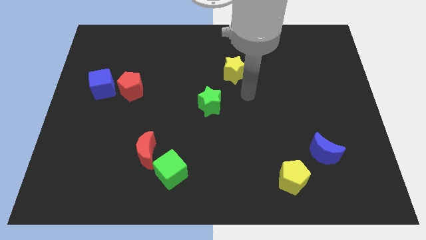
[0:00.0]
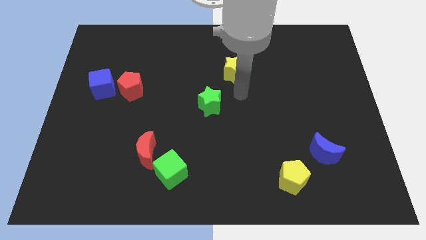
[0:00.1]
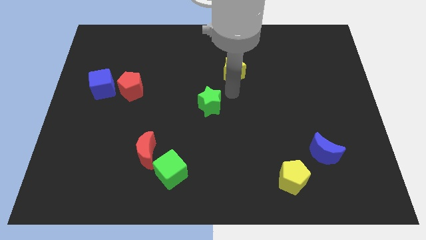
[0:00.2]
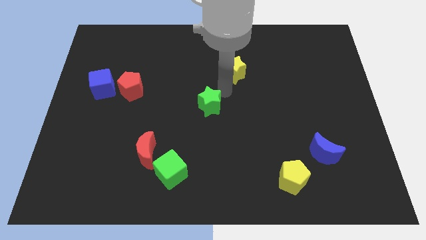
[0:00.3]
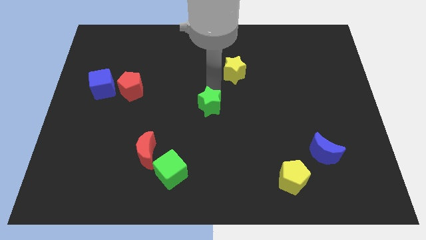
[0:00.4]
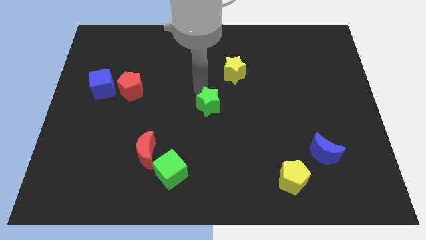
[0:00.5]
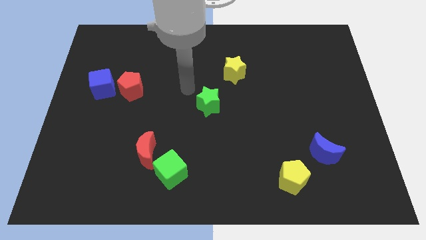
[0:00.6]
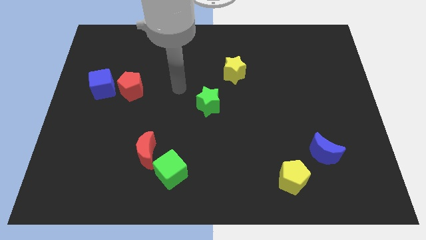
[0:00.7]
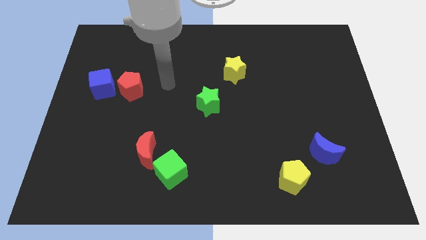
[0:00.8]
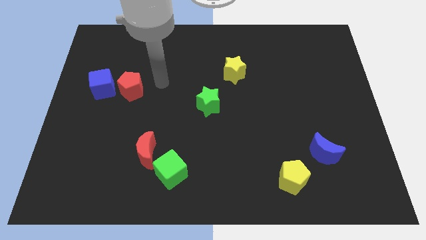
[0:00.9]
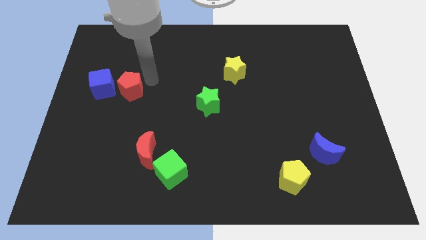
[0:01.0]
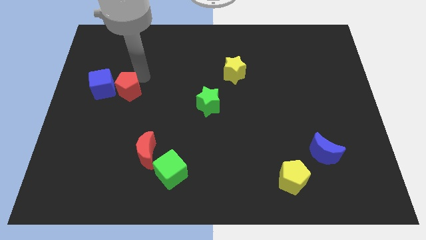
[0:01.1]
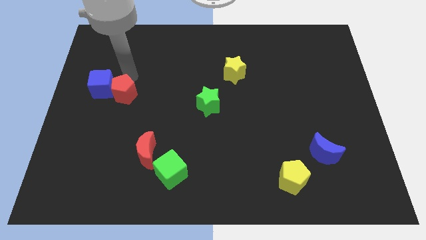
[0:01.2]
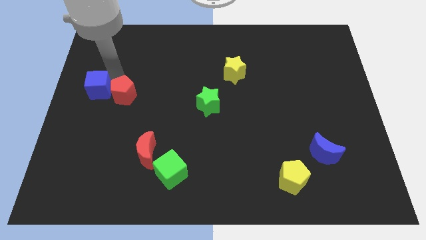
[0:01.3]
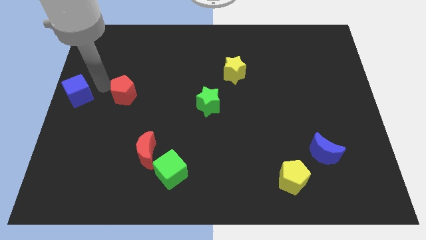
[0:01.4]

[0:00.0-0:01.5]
move the red pentagon away from the blue cube

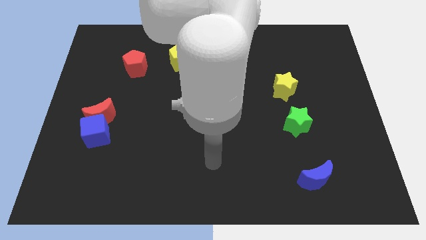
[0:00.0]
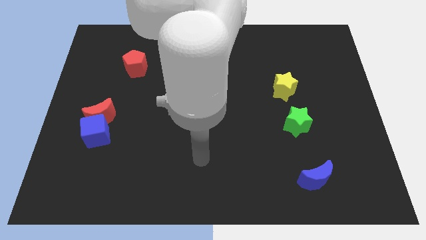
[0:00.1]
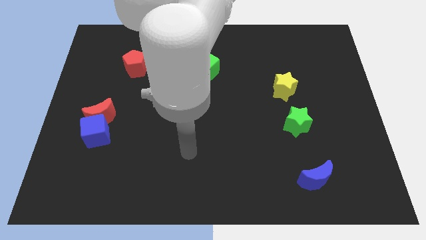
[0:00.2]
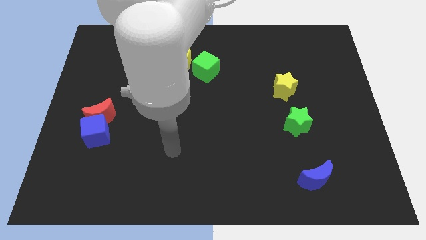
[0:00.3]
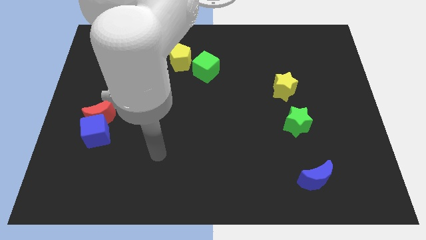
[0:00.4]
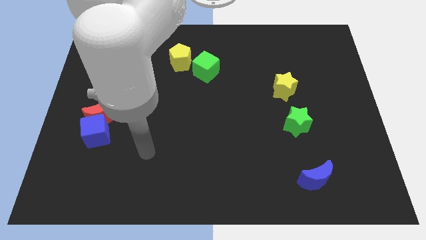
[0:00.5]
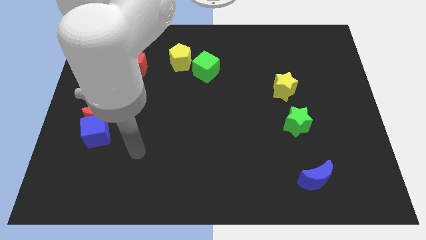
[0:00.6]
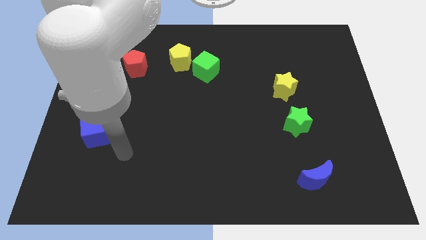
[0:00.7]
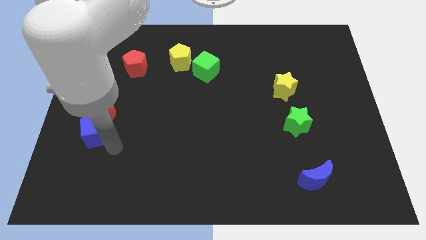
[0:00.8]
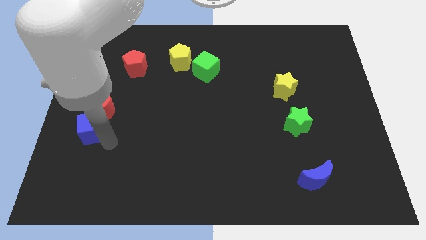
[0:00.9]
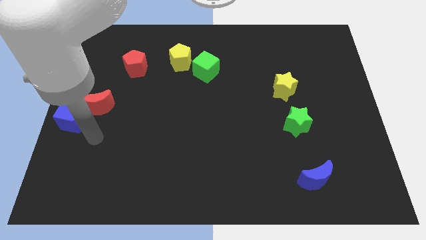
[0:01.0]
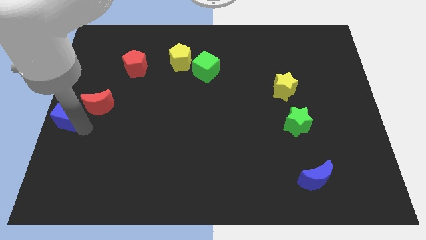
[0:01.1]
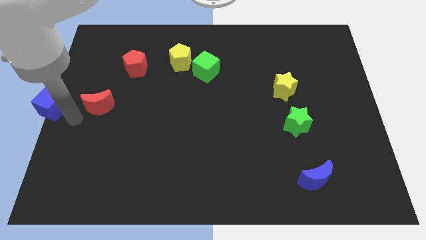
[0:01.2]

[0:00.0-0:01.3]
move the red moon away from the blue cube

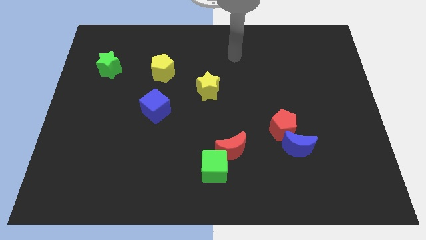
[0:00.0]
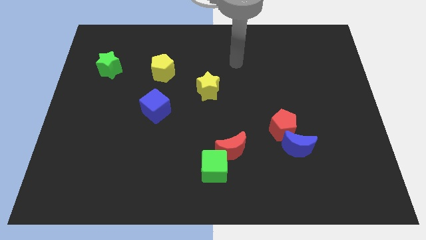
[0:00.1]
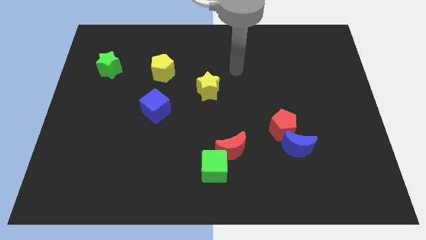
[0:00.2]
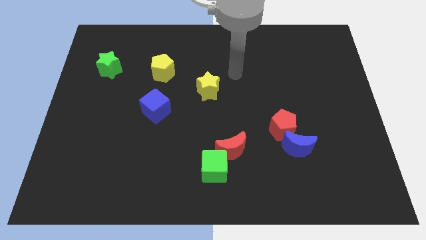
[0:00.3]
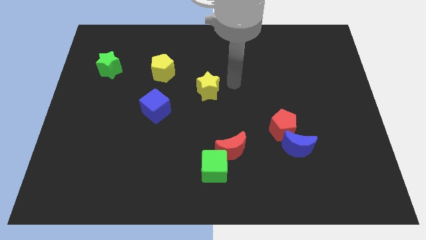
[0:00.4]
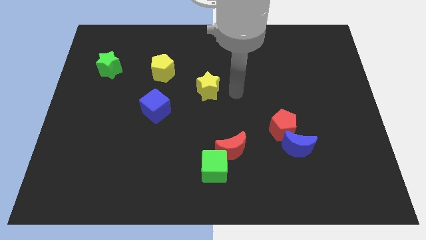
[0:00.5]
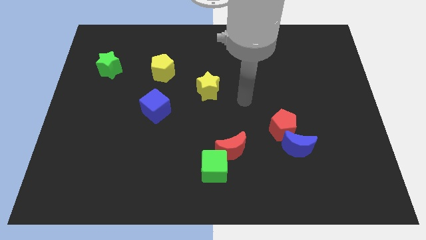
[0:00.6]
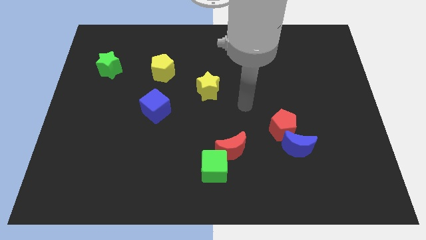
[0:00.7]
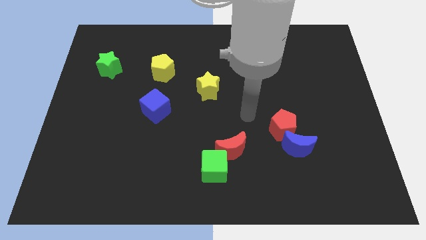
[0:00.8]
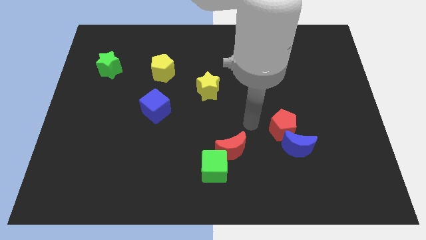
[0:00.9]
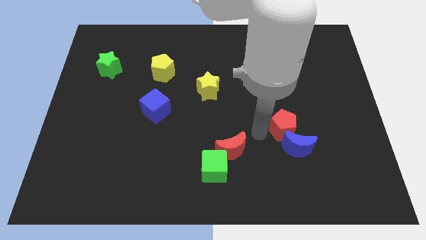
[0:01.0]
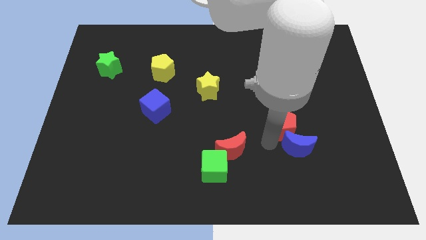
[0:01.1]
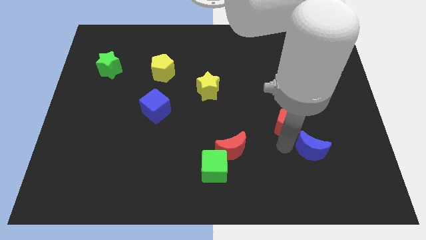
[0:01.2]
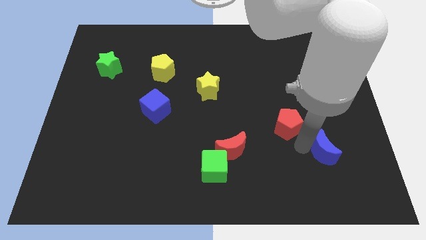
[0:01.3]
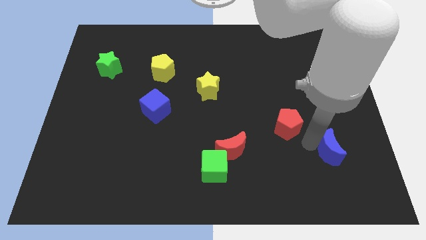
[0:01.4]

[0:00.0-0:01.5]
separate the red pentagon from the blue moon

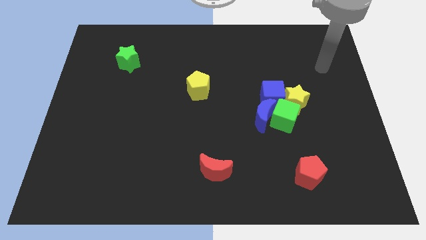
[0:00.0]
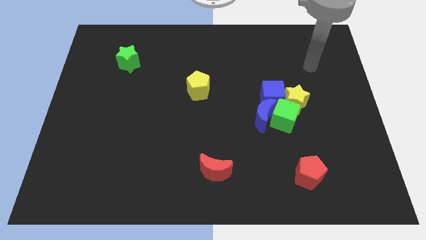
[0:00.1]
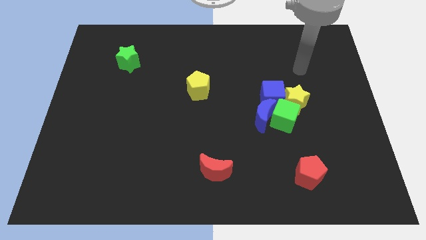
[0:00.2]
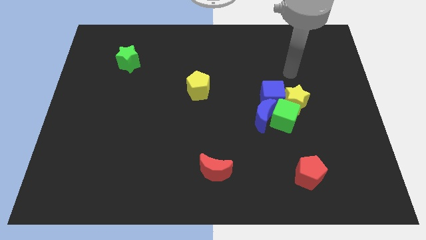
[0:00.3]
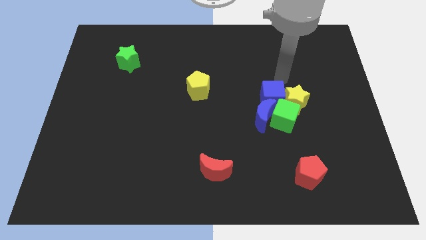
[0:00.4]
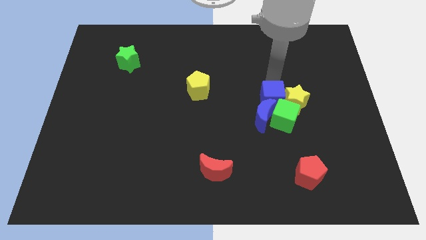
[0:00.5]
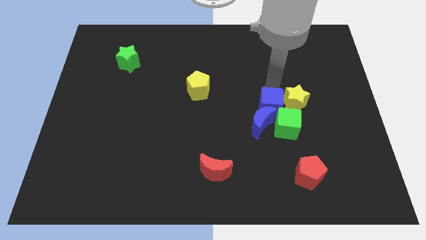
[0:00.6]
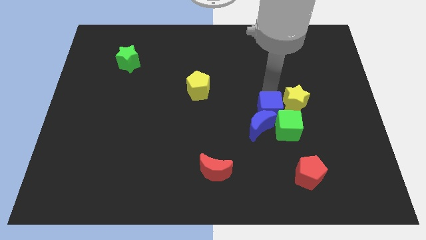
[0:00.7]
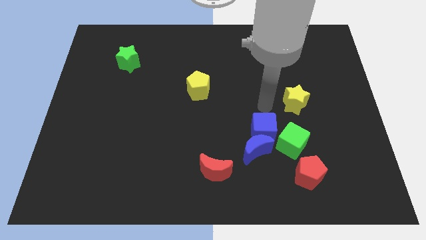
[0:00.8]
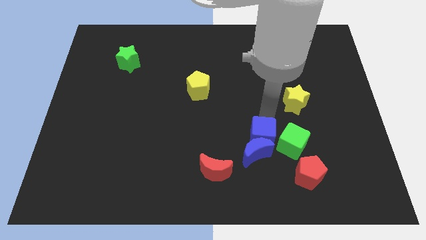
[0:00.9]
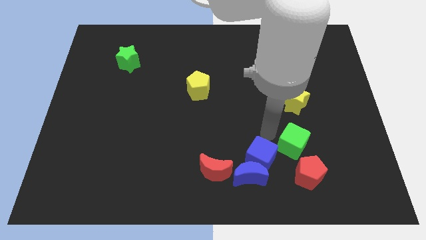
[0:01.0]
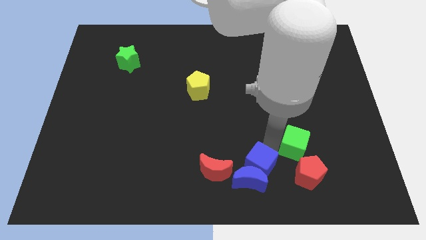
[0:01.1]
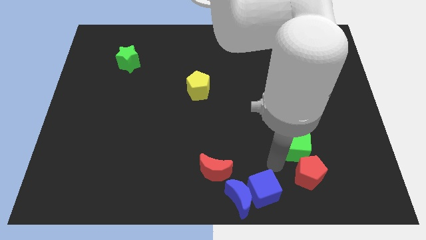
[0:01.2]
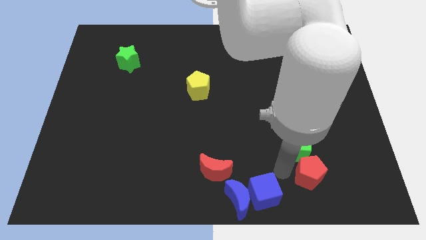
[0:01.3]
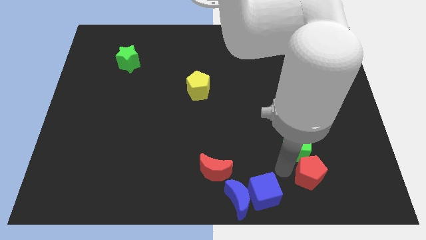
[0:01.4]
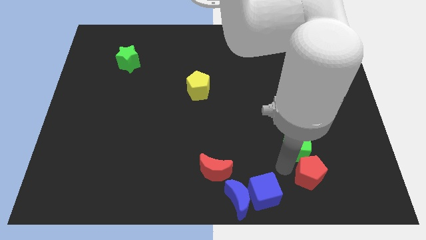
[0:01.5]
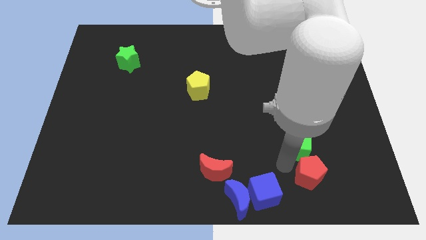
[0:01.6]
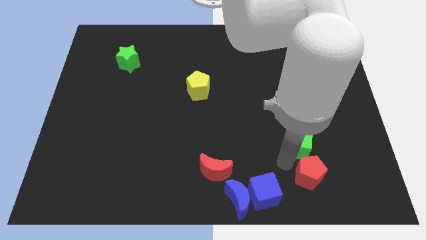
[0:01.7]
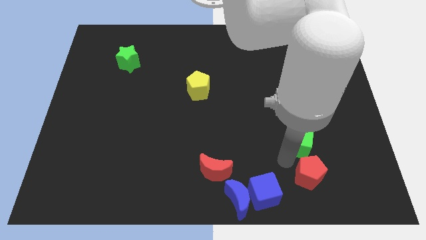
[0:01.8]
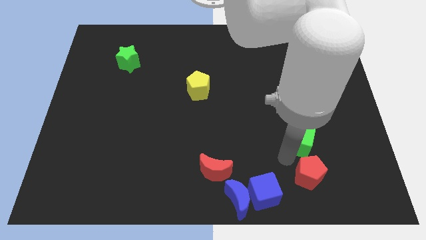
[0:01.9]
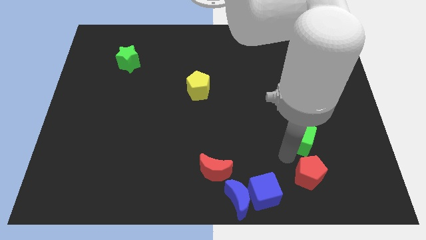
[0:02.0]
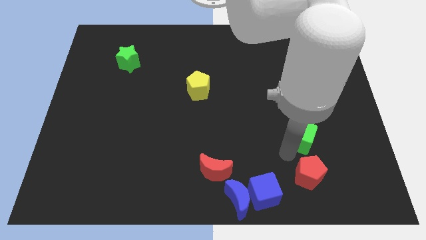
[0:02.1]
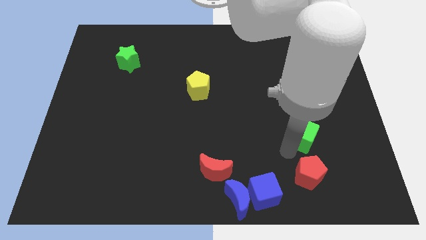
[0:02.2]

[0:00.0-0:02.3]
pull the green cube apart from the blue moon, yellow star, and blue cube

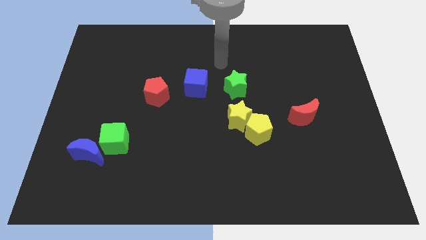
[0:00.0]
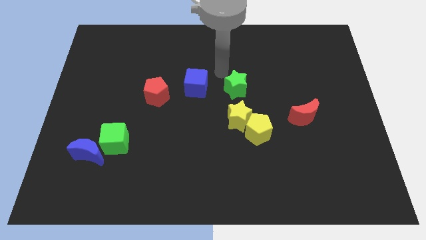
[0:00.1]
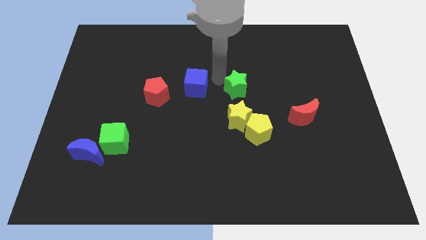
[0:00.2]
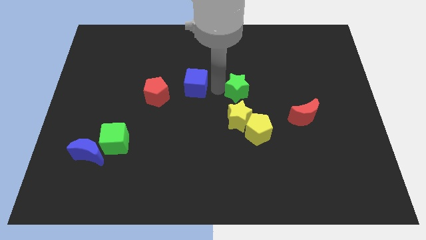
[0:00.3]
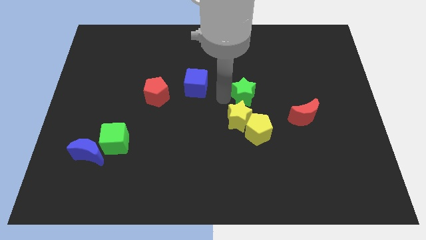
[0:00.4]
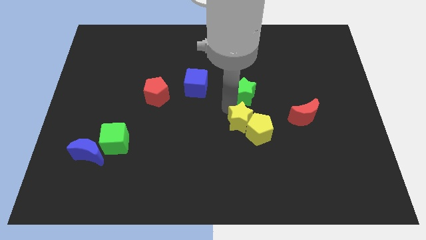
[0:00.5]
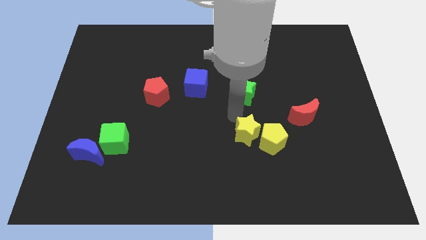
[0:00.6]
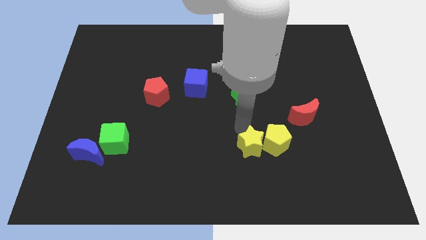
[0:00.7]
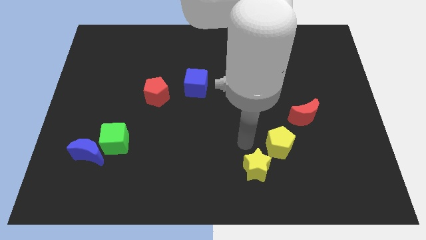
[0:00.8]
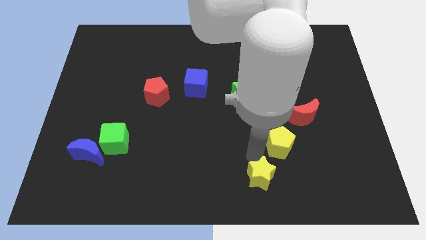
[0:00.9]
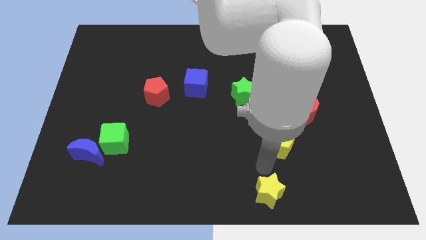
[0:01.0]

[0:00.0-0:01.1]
move the yellow pentagon away from the yellow star

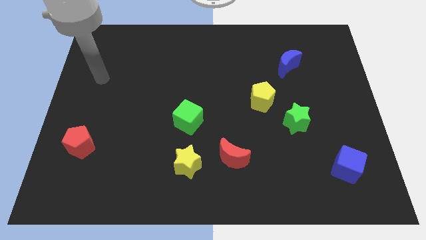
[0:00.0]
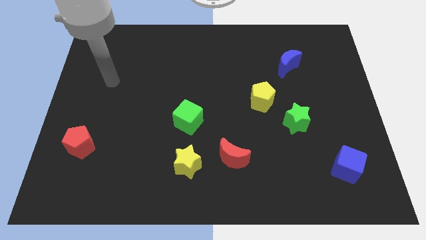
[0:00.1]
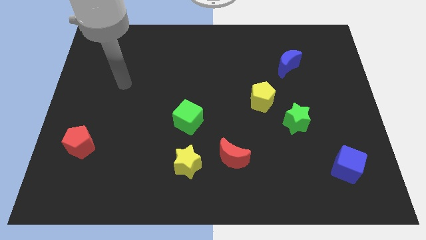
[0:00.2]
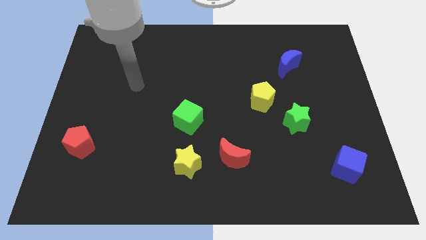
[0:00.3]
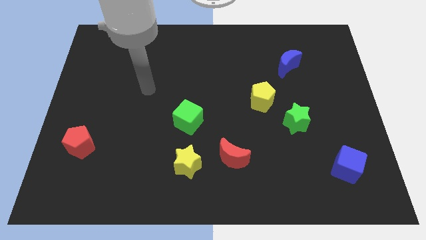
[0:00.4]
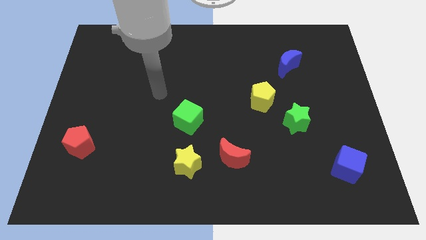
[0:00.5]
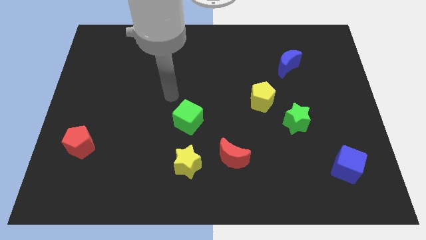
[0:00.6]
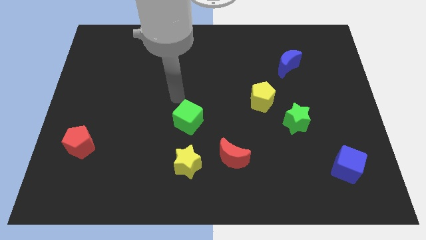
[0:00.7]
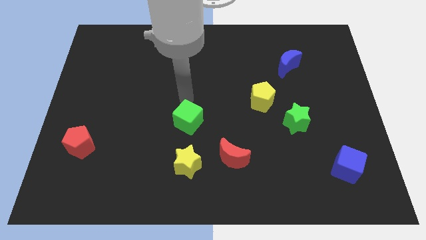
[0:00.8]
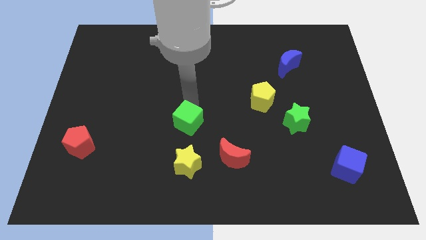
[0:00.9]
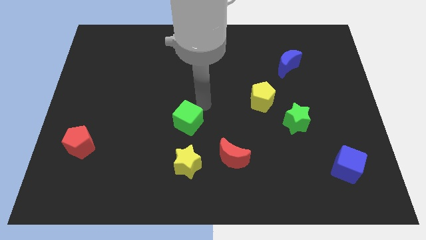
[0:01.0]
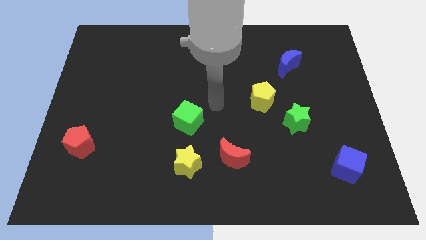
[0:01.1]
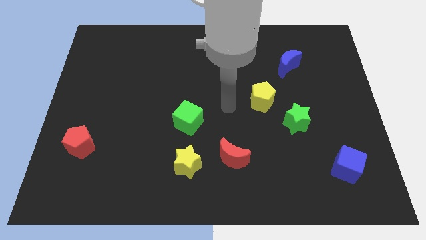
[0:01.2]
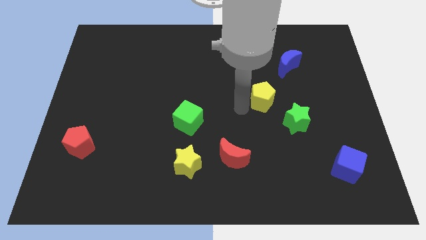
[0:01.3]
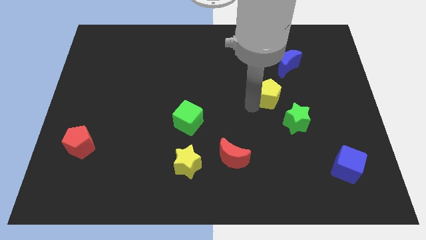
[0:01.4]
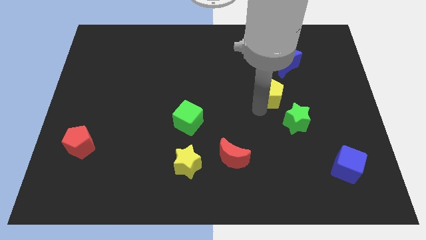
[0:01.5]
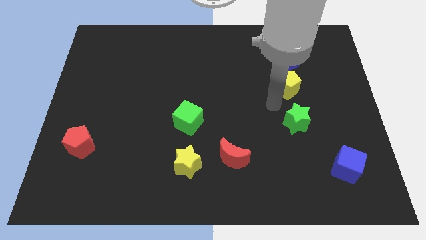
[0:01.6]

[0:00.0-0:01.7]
separate the green star from the yellow pentagon
